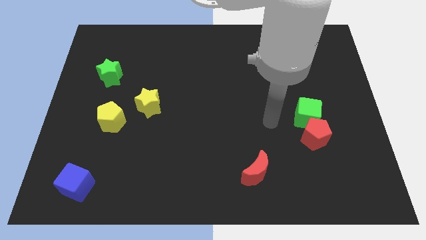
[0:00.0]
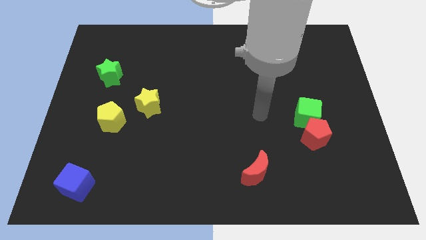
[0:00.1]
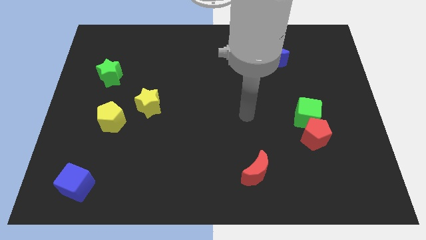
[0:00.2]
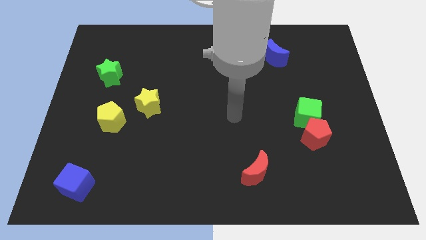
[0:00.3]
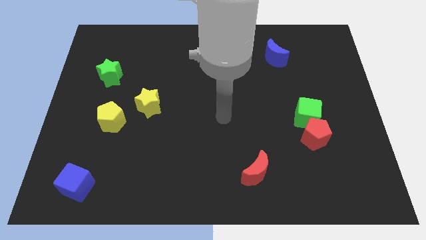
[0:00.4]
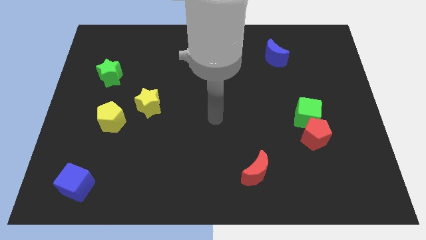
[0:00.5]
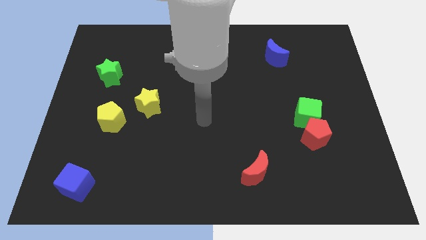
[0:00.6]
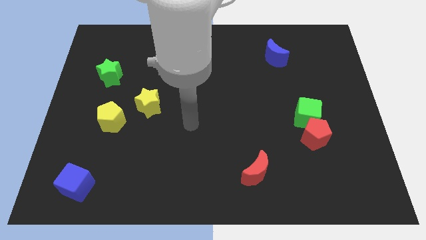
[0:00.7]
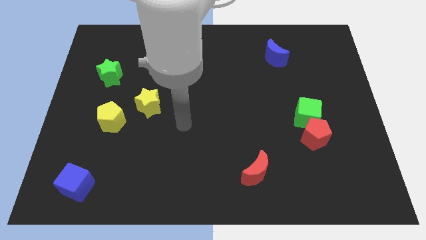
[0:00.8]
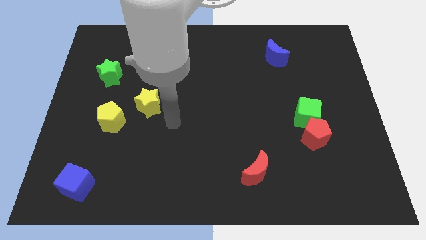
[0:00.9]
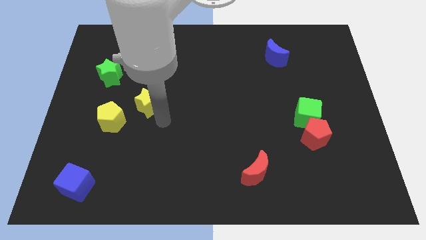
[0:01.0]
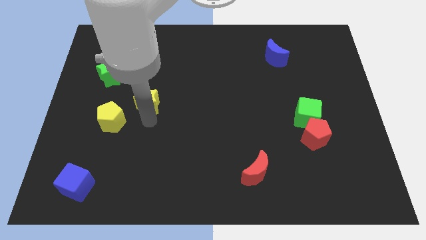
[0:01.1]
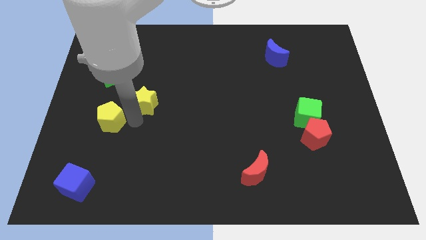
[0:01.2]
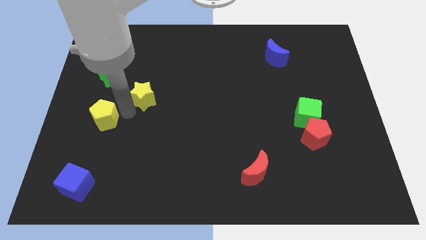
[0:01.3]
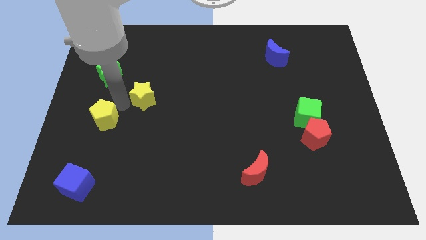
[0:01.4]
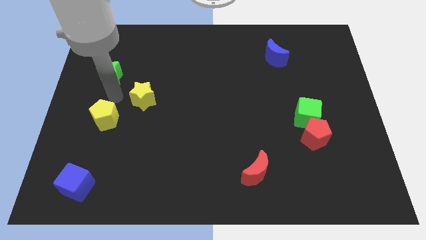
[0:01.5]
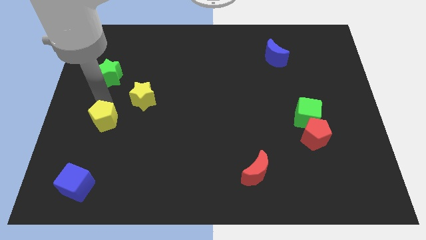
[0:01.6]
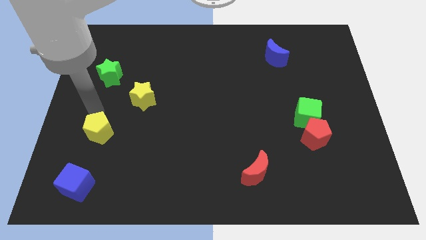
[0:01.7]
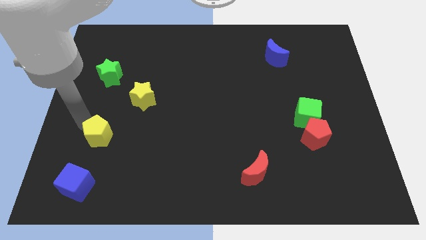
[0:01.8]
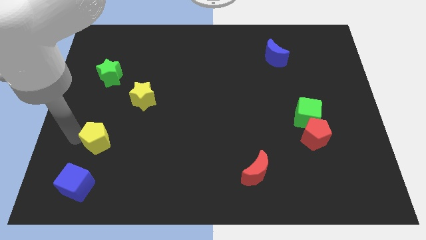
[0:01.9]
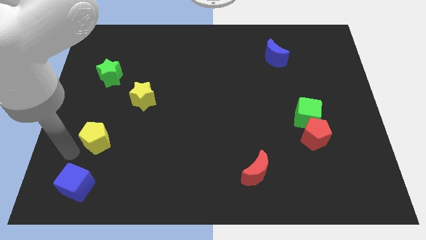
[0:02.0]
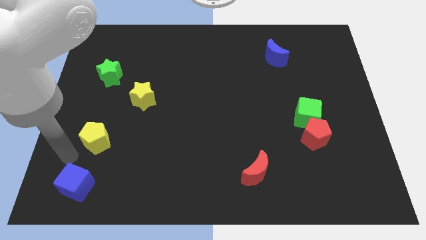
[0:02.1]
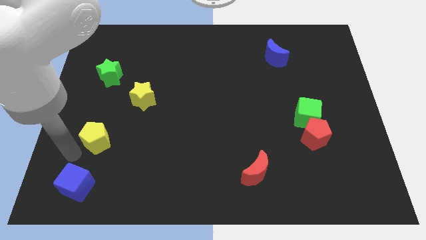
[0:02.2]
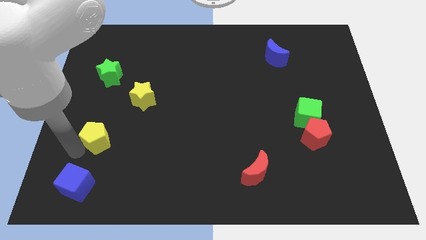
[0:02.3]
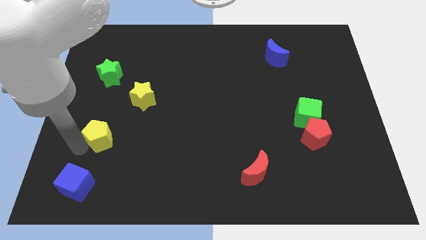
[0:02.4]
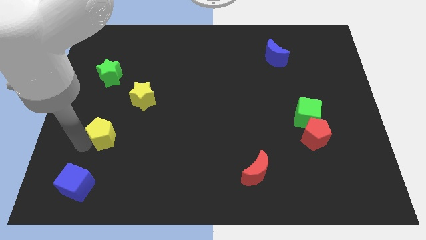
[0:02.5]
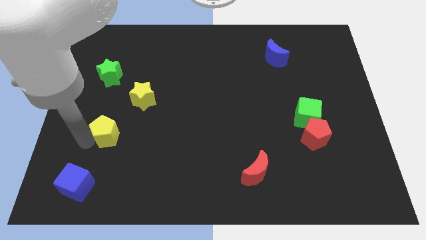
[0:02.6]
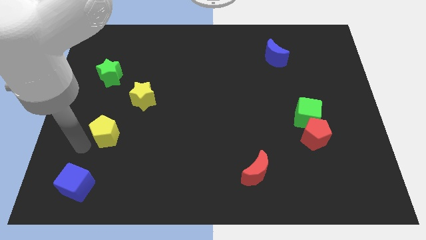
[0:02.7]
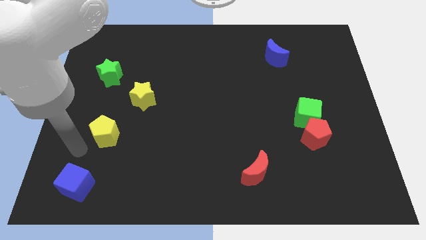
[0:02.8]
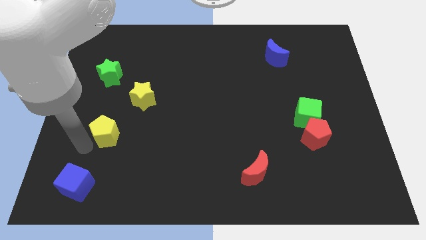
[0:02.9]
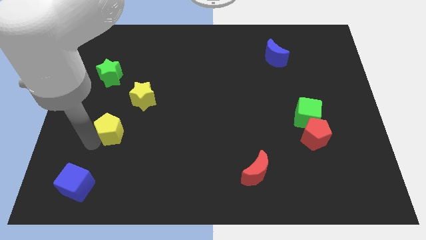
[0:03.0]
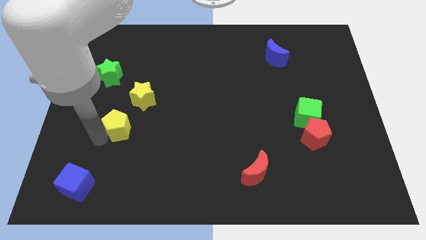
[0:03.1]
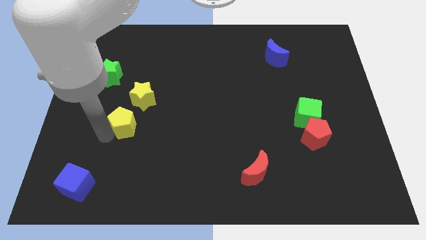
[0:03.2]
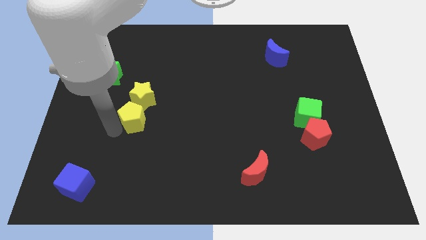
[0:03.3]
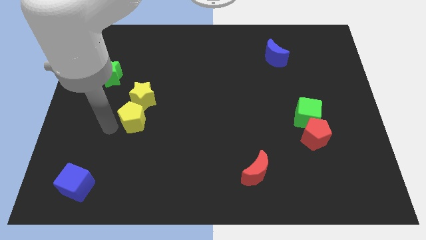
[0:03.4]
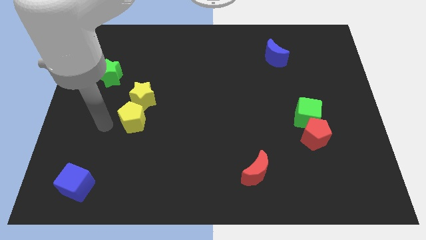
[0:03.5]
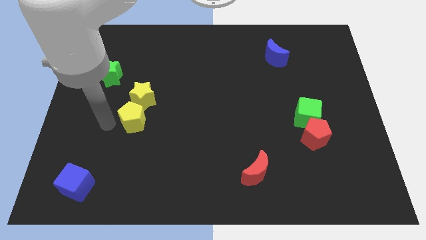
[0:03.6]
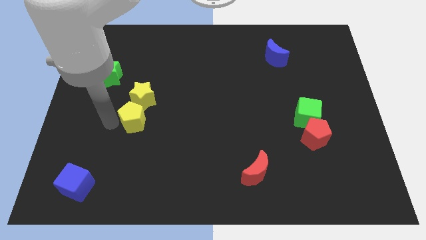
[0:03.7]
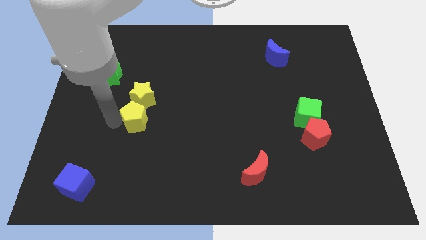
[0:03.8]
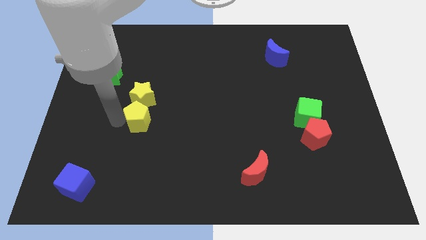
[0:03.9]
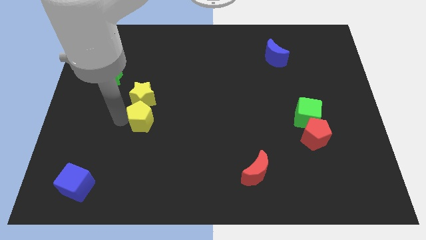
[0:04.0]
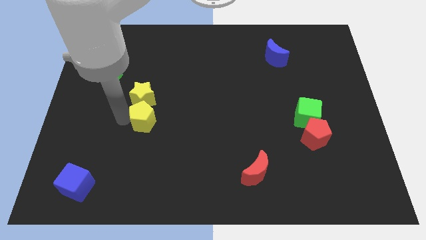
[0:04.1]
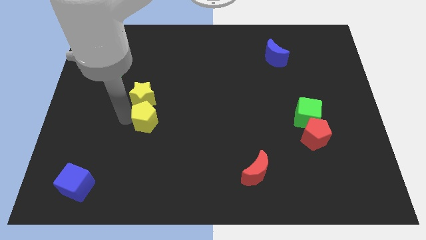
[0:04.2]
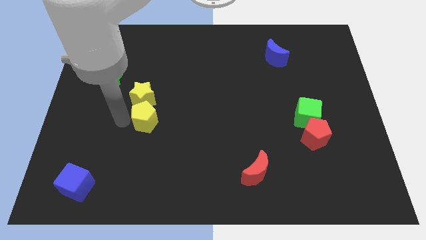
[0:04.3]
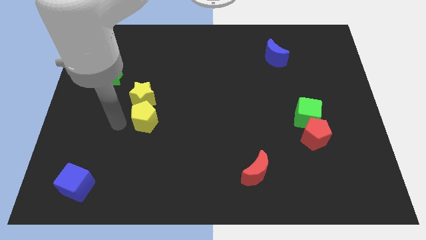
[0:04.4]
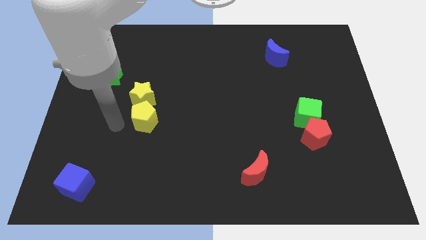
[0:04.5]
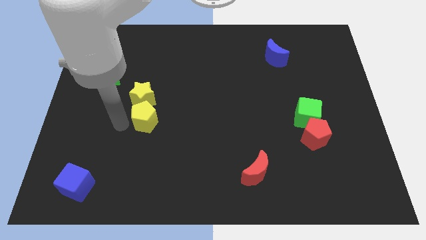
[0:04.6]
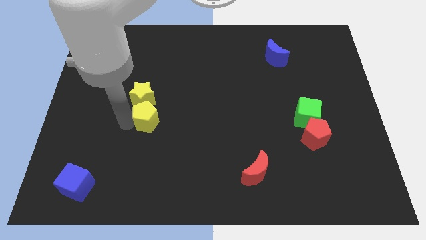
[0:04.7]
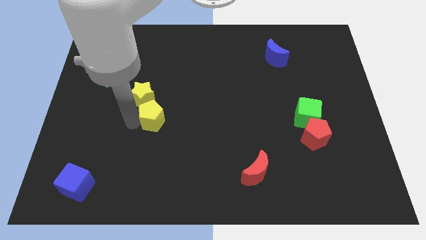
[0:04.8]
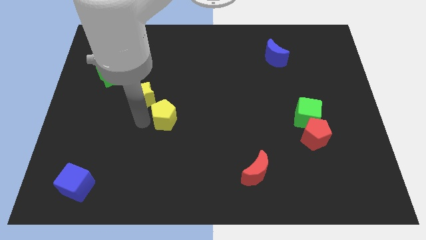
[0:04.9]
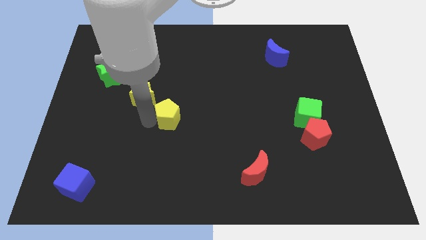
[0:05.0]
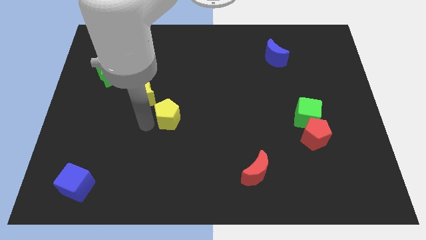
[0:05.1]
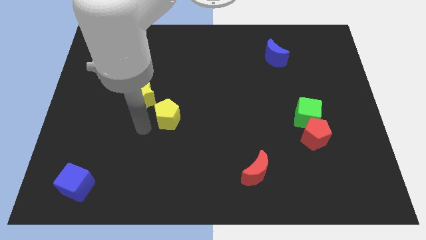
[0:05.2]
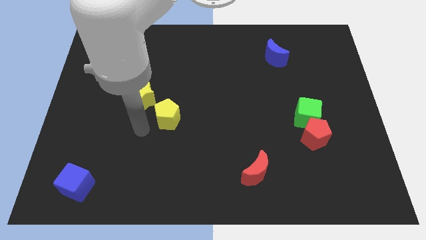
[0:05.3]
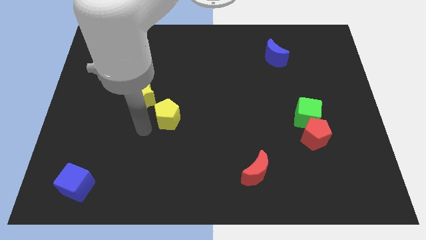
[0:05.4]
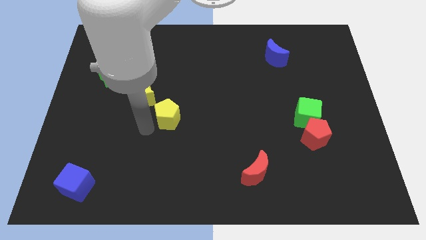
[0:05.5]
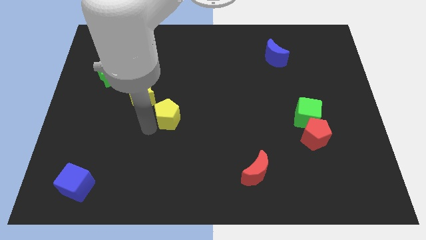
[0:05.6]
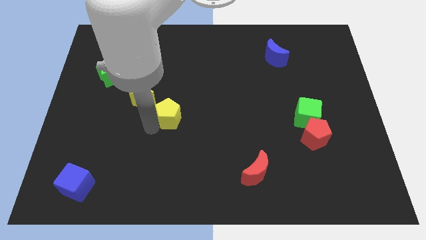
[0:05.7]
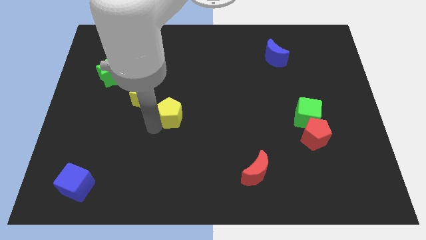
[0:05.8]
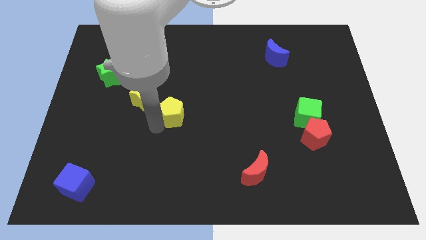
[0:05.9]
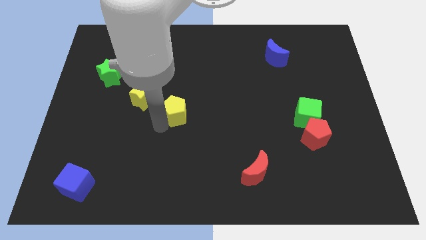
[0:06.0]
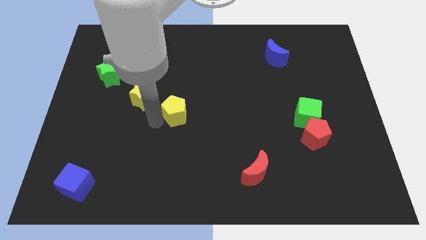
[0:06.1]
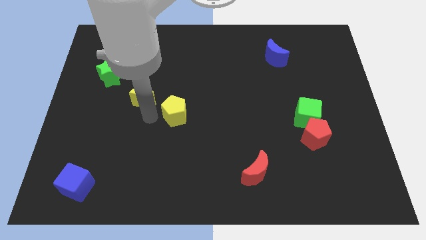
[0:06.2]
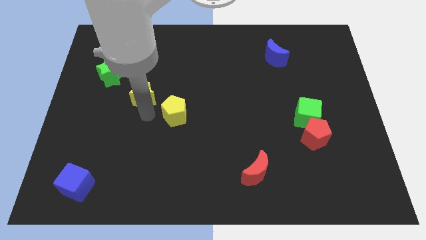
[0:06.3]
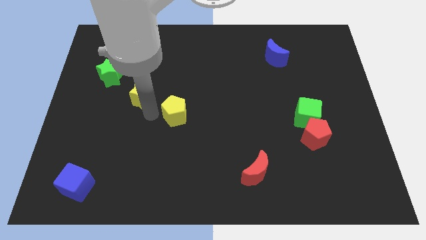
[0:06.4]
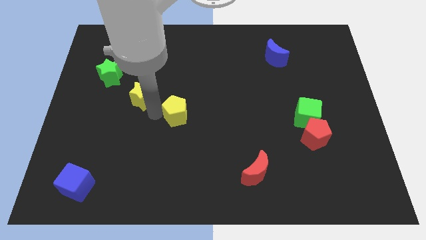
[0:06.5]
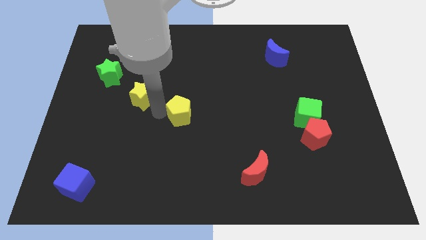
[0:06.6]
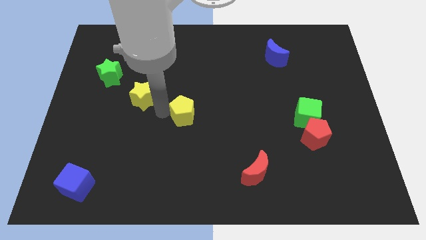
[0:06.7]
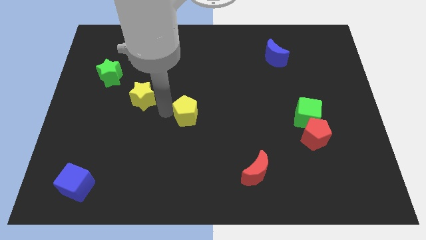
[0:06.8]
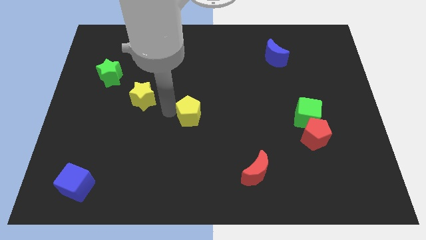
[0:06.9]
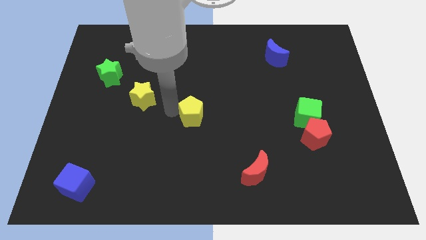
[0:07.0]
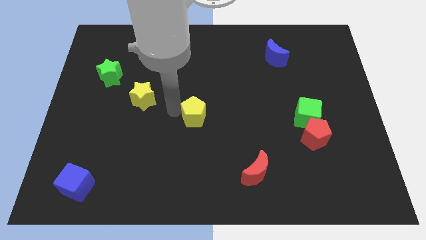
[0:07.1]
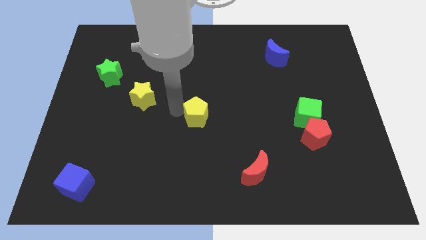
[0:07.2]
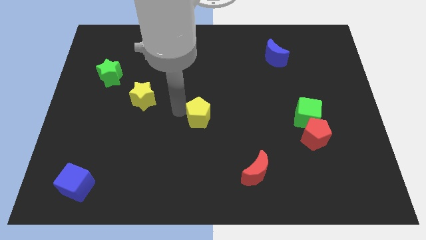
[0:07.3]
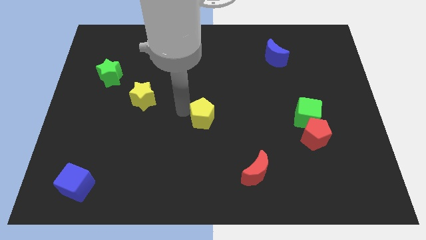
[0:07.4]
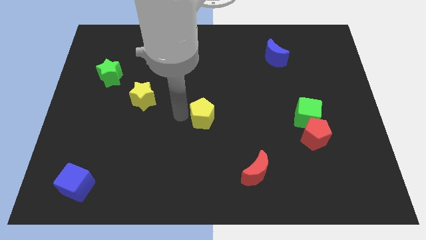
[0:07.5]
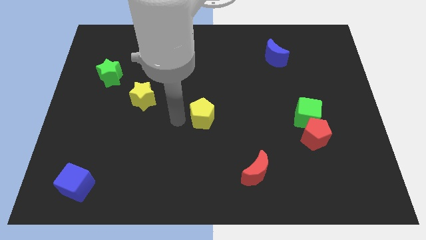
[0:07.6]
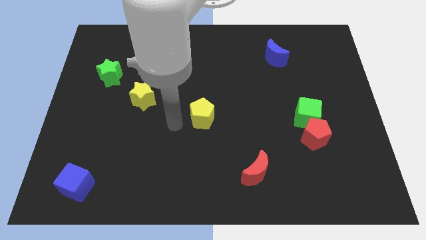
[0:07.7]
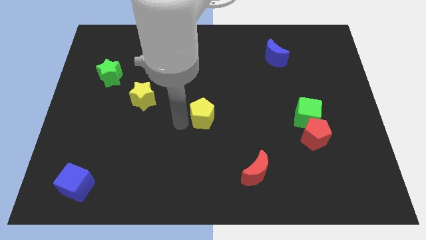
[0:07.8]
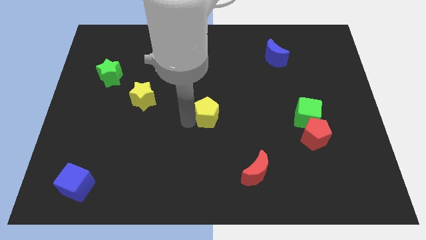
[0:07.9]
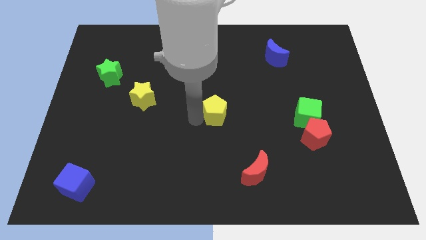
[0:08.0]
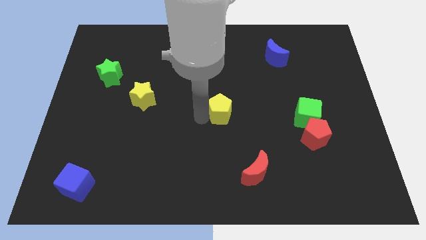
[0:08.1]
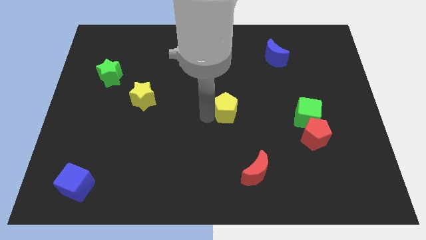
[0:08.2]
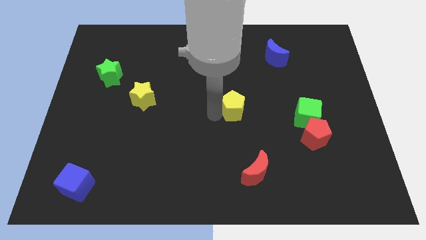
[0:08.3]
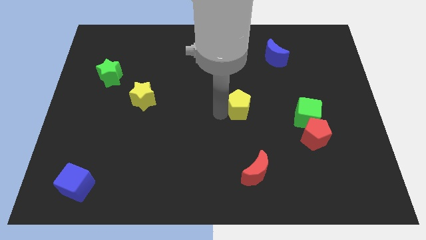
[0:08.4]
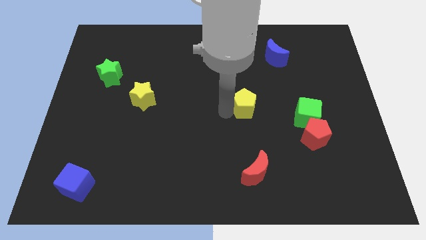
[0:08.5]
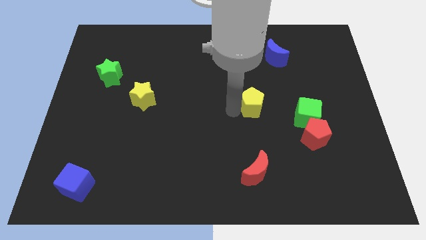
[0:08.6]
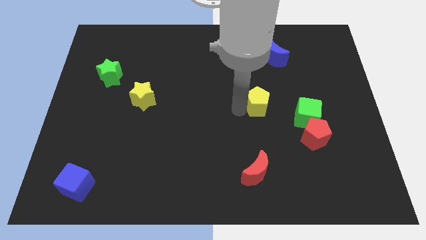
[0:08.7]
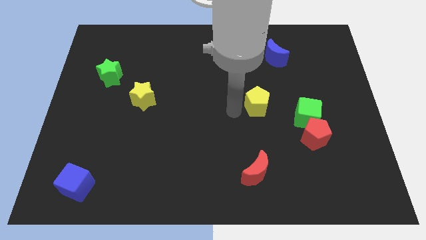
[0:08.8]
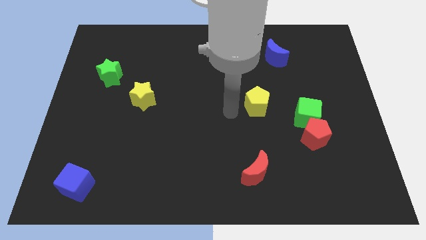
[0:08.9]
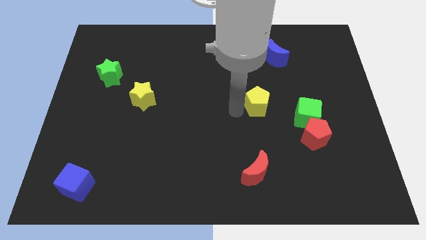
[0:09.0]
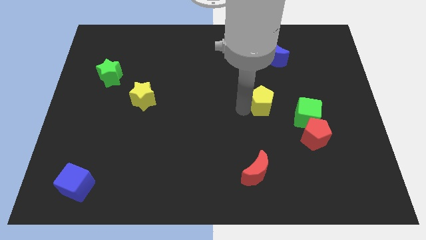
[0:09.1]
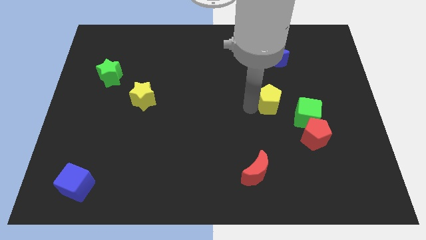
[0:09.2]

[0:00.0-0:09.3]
move the yellow pentagon diagonally up and to the left of the green cube
